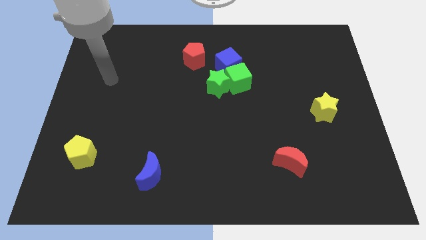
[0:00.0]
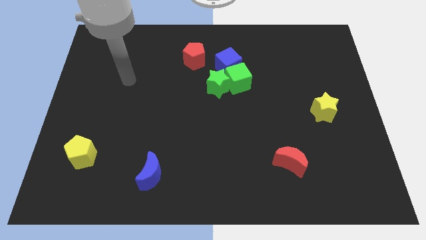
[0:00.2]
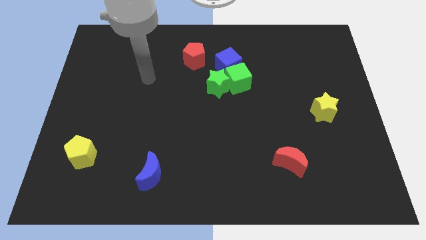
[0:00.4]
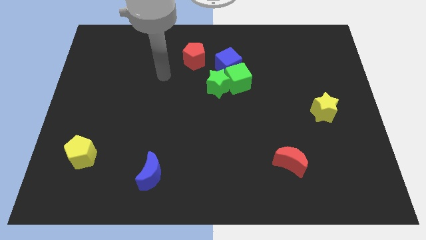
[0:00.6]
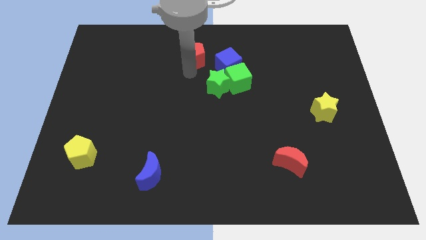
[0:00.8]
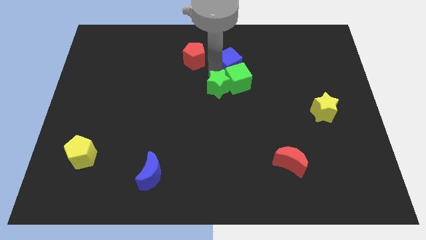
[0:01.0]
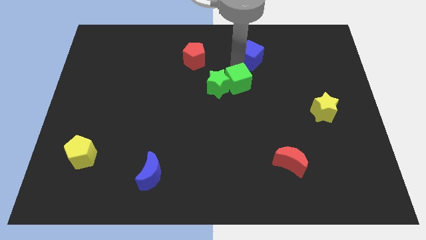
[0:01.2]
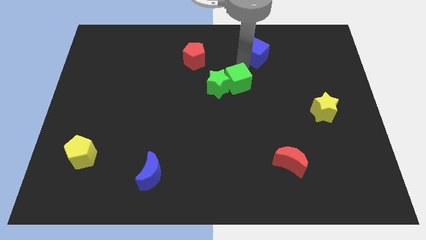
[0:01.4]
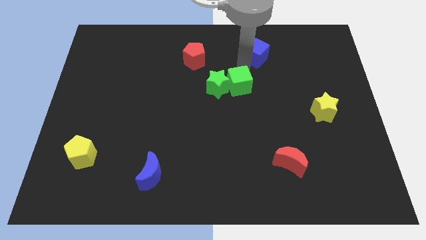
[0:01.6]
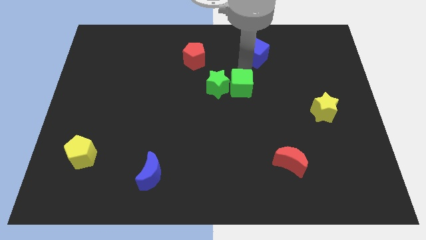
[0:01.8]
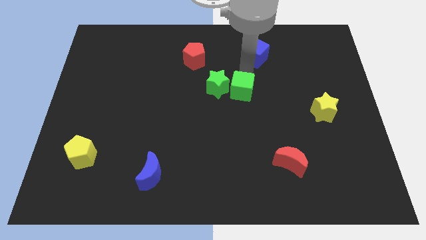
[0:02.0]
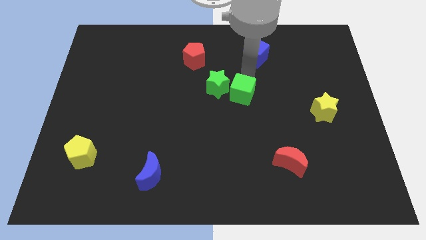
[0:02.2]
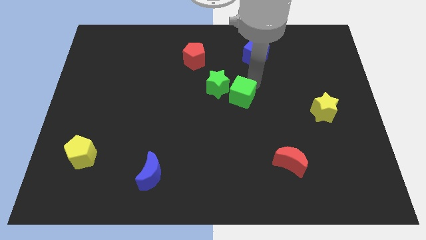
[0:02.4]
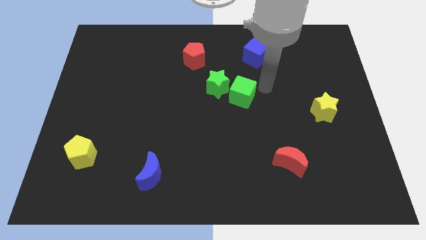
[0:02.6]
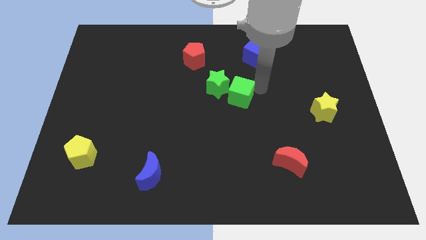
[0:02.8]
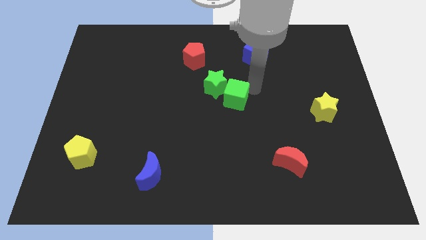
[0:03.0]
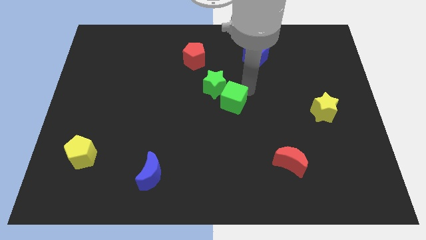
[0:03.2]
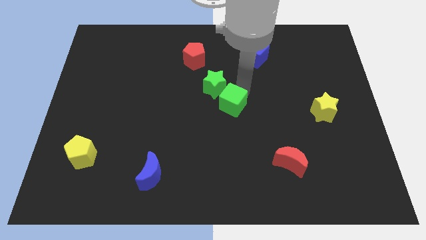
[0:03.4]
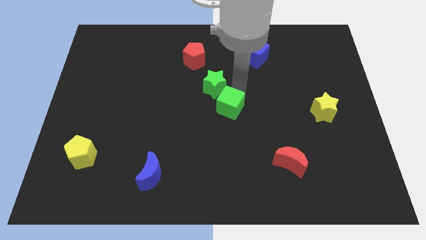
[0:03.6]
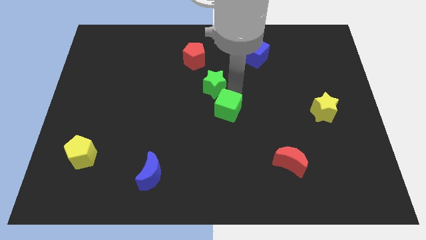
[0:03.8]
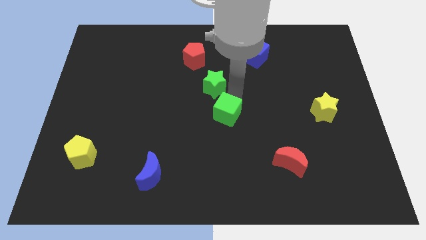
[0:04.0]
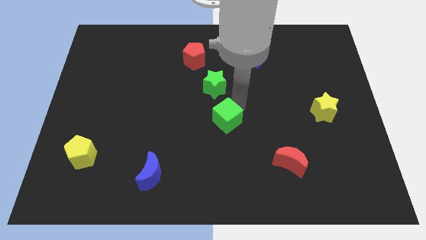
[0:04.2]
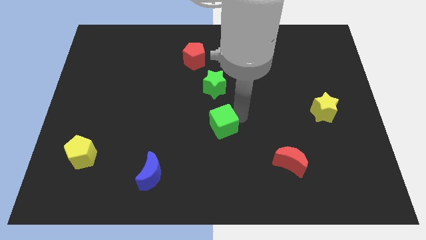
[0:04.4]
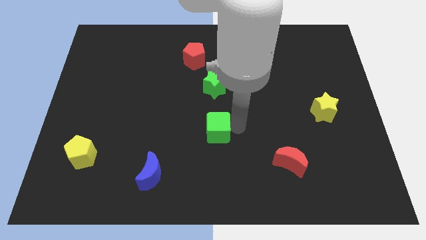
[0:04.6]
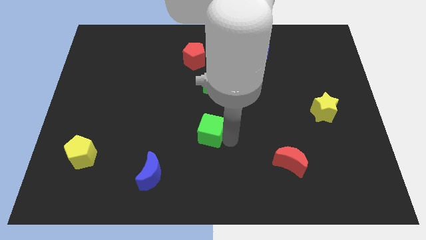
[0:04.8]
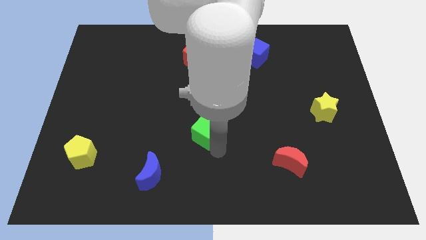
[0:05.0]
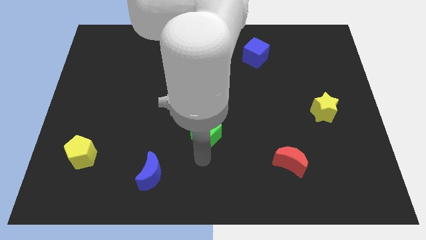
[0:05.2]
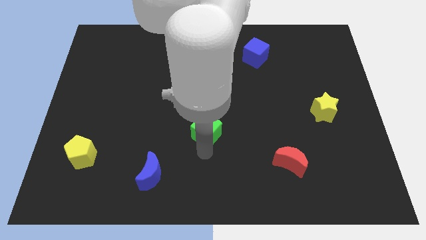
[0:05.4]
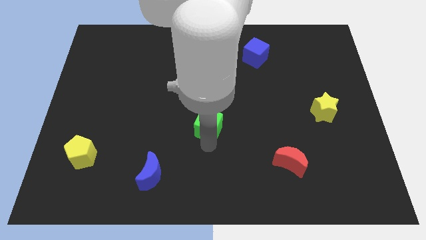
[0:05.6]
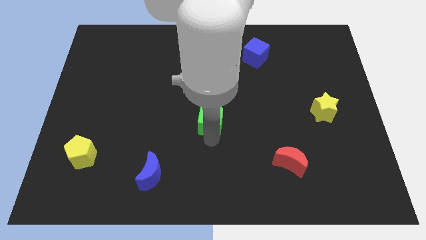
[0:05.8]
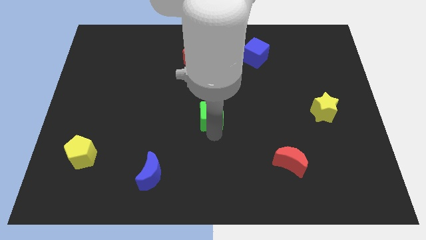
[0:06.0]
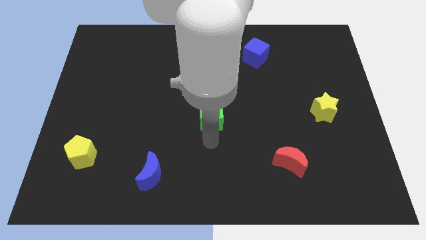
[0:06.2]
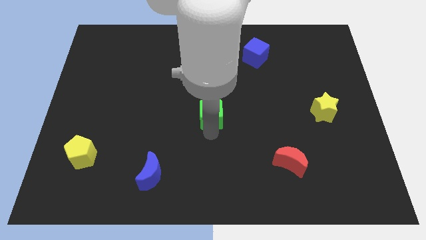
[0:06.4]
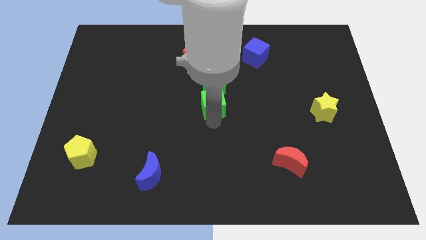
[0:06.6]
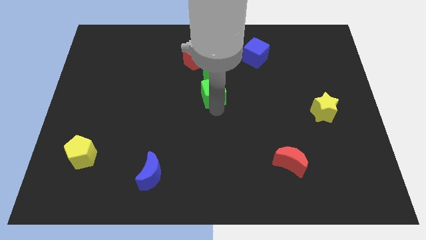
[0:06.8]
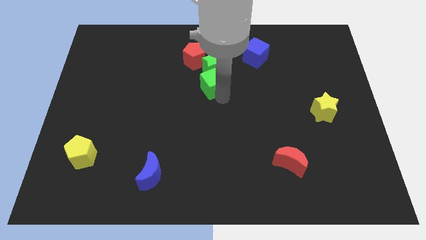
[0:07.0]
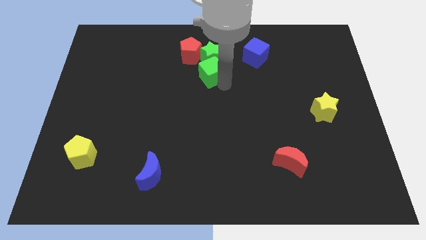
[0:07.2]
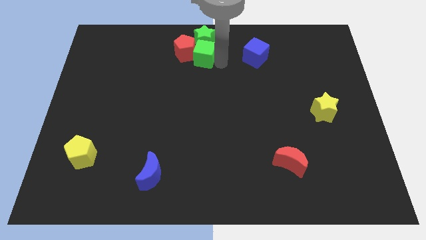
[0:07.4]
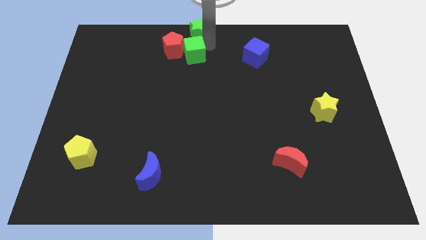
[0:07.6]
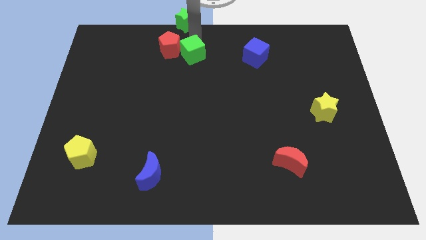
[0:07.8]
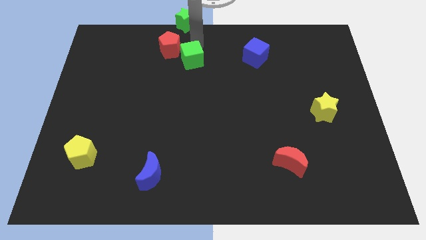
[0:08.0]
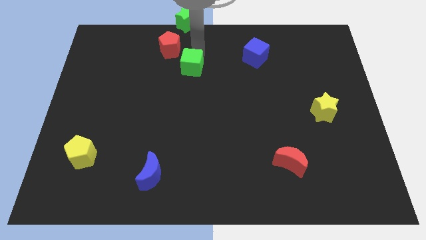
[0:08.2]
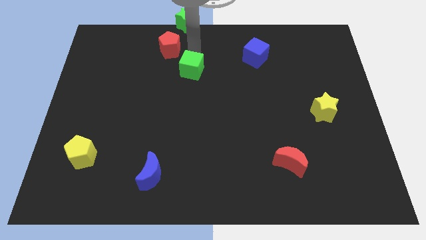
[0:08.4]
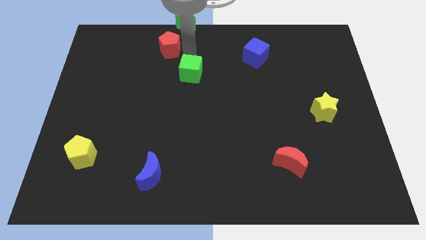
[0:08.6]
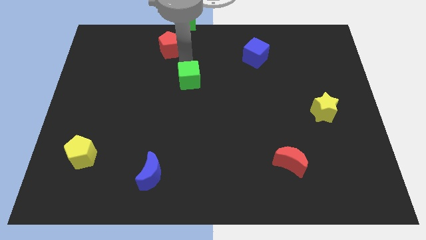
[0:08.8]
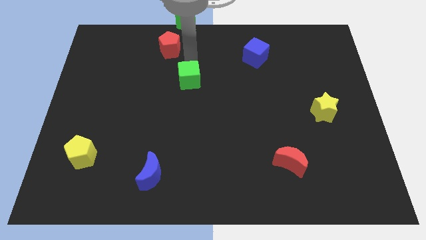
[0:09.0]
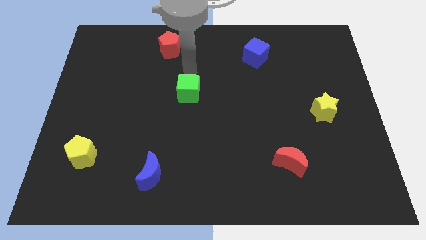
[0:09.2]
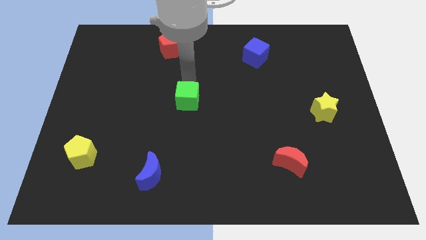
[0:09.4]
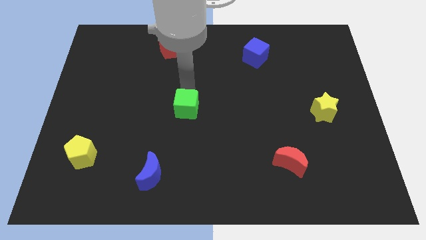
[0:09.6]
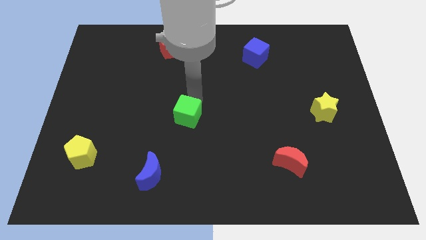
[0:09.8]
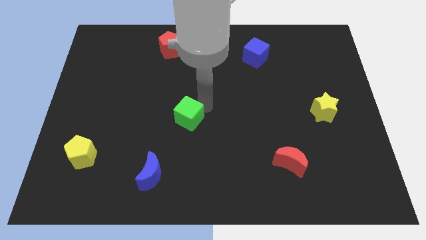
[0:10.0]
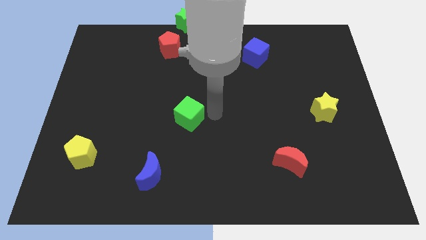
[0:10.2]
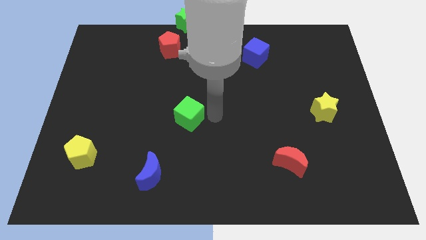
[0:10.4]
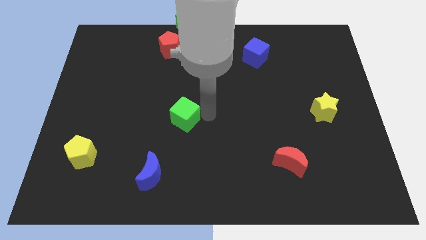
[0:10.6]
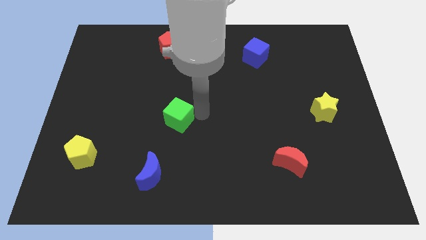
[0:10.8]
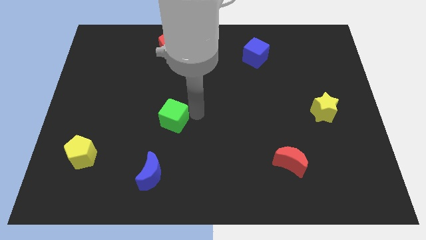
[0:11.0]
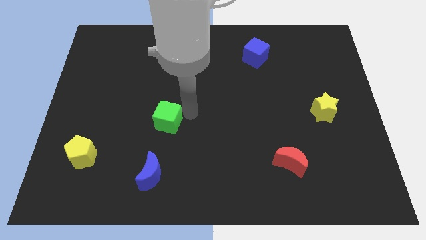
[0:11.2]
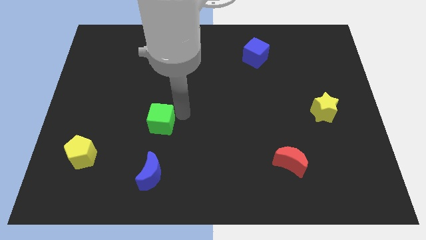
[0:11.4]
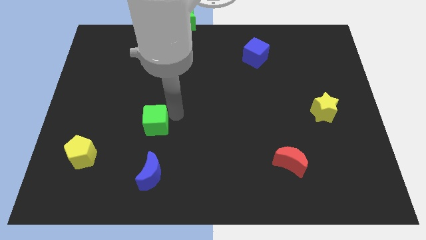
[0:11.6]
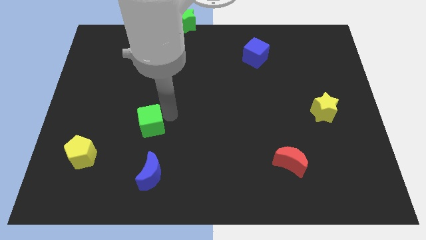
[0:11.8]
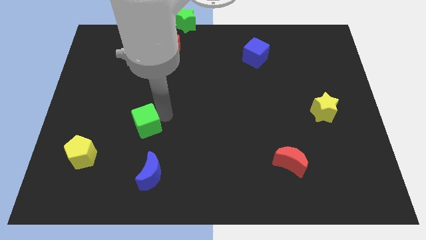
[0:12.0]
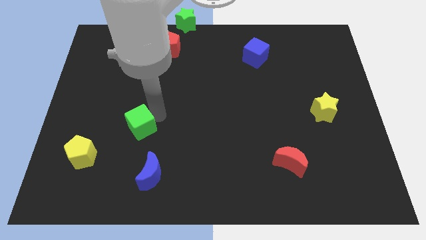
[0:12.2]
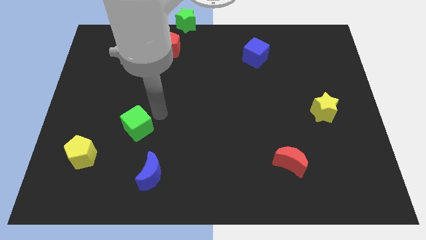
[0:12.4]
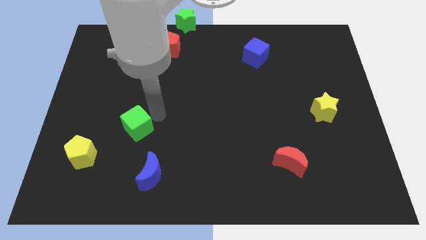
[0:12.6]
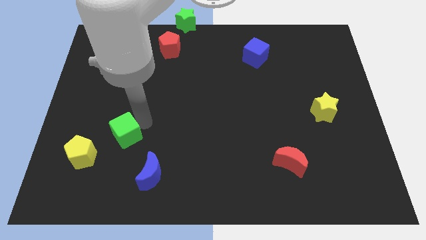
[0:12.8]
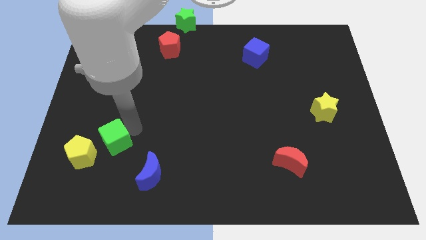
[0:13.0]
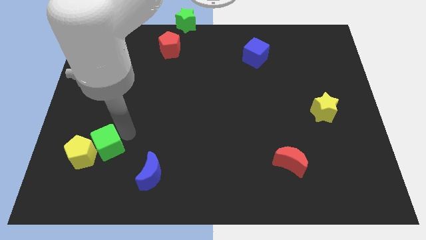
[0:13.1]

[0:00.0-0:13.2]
slide the green cube next to the yellow pentagon

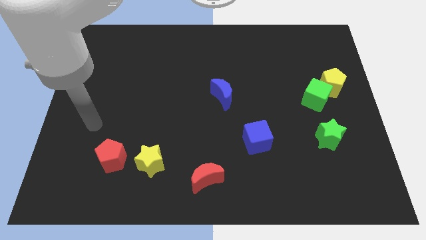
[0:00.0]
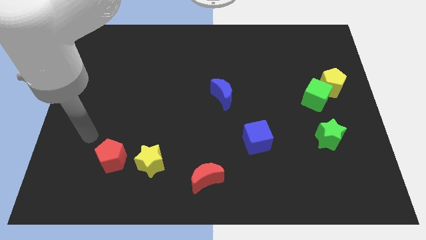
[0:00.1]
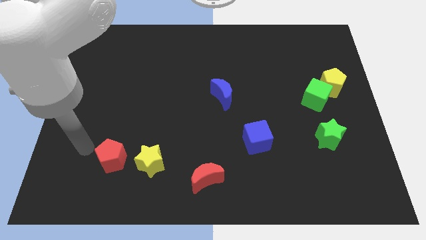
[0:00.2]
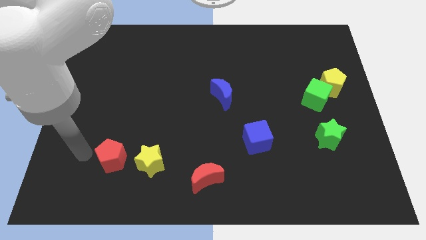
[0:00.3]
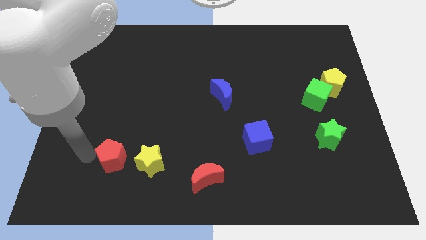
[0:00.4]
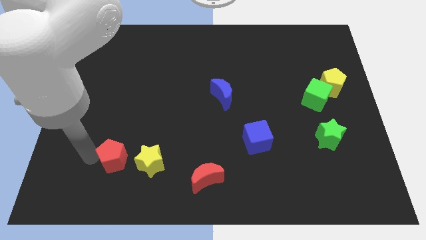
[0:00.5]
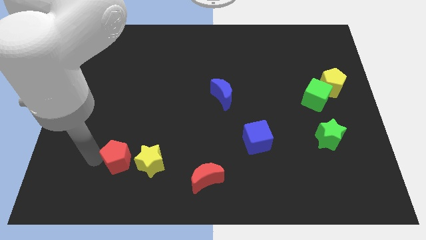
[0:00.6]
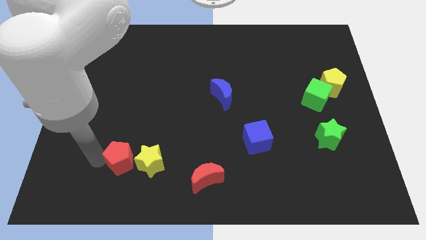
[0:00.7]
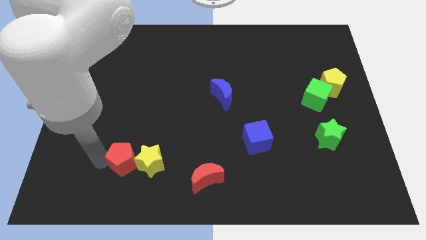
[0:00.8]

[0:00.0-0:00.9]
move the red pentagon to the yellow star
